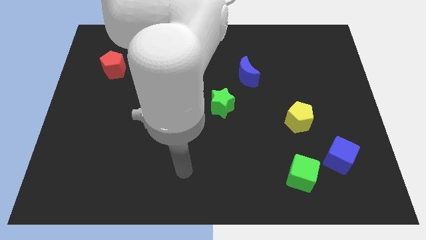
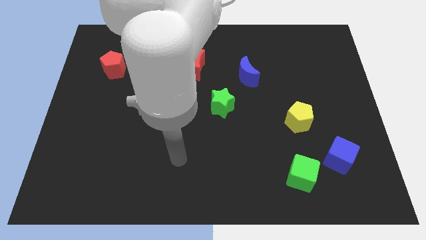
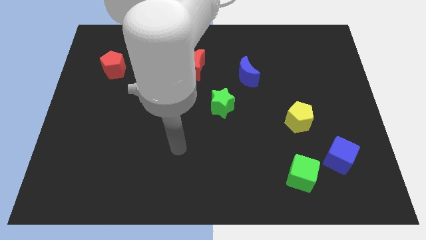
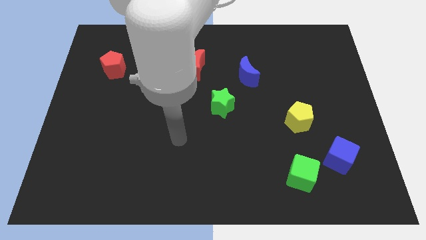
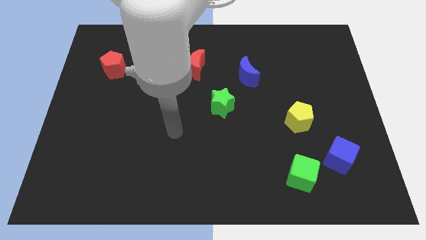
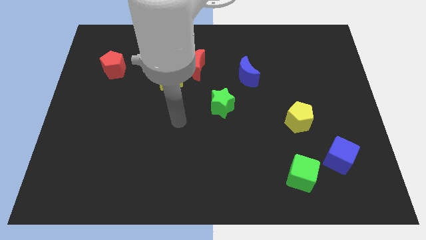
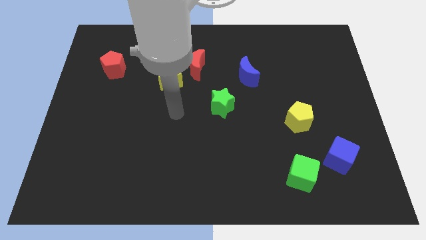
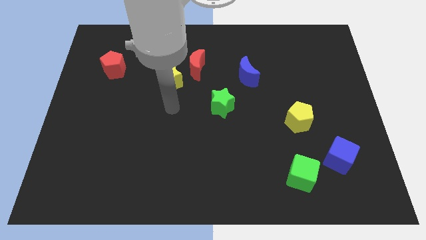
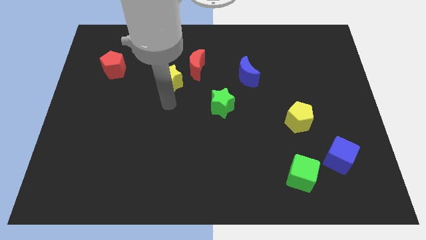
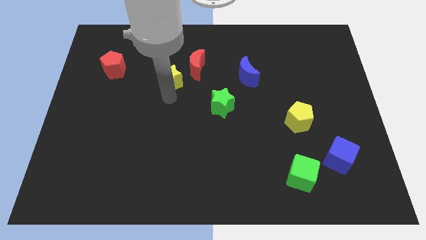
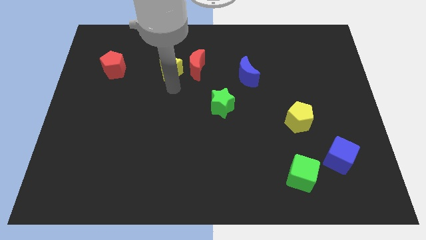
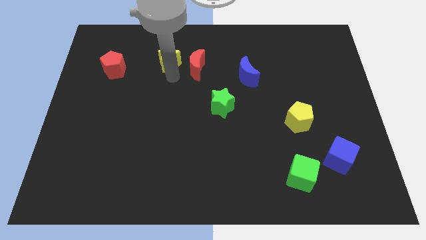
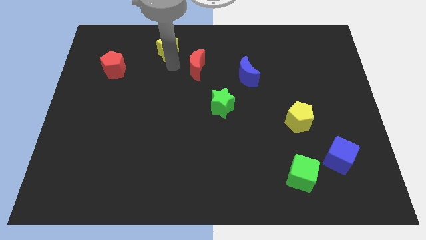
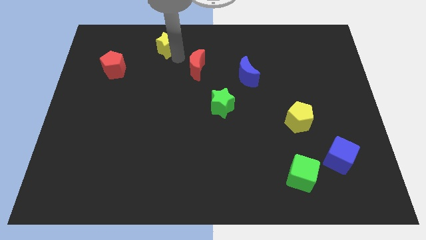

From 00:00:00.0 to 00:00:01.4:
pull the red moon apart from the yellow star

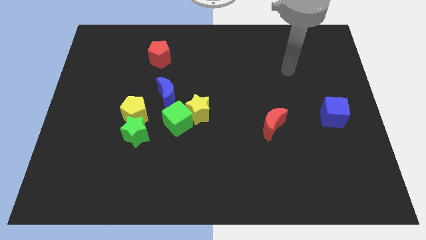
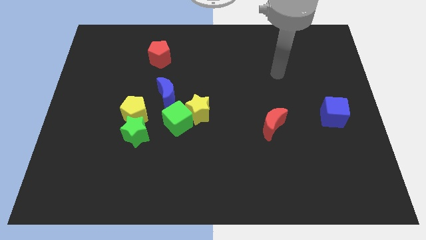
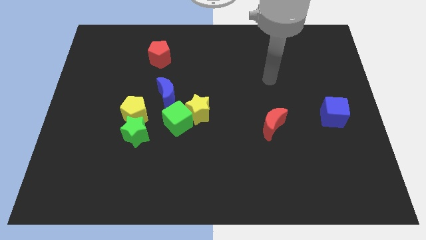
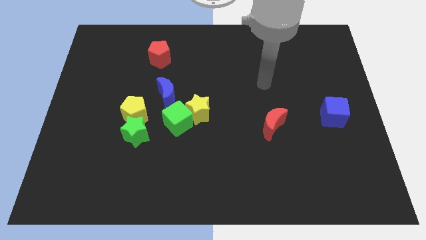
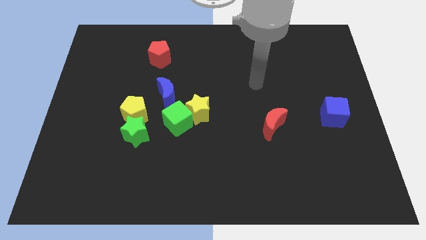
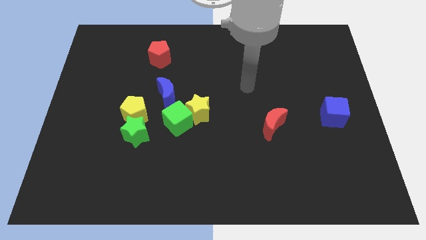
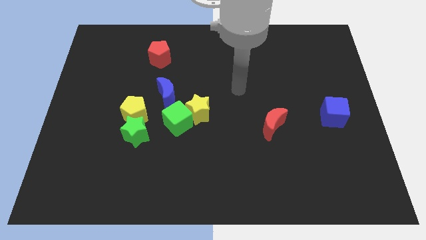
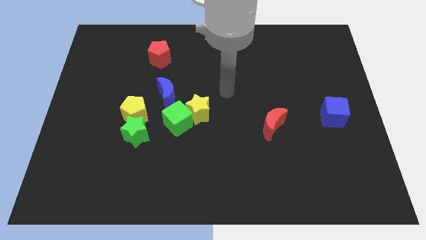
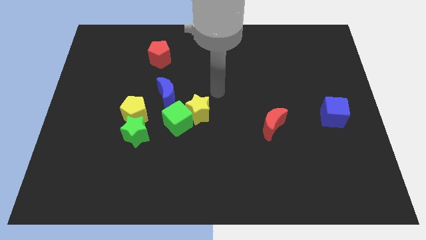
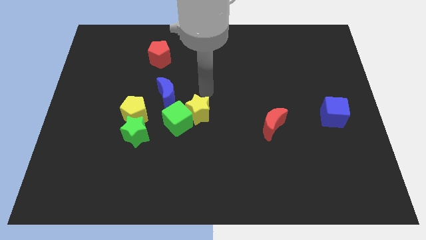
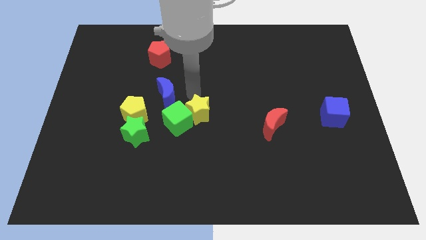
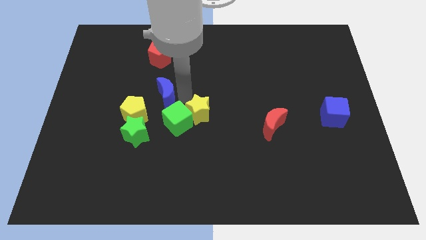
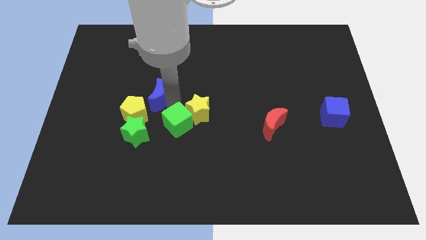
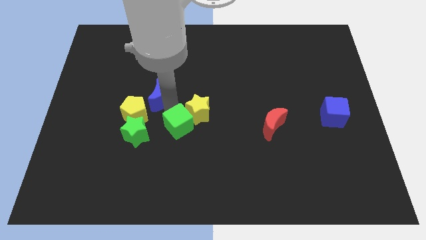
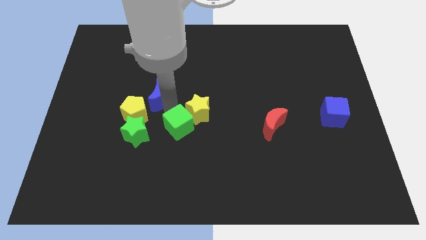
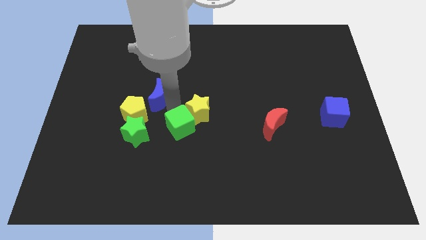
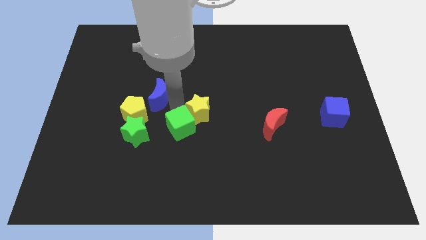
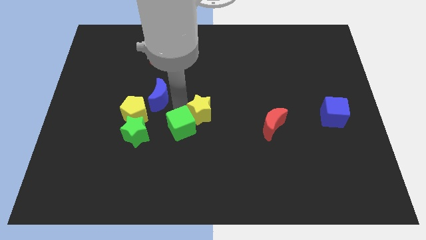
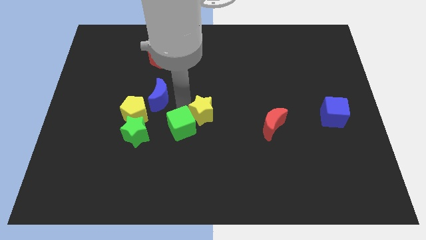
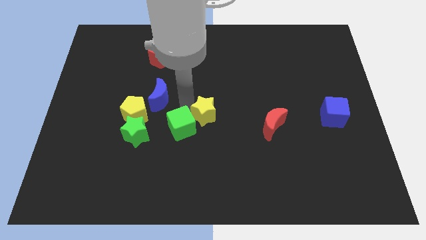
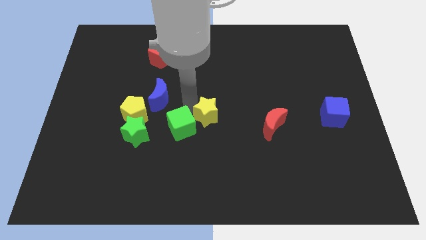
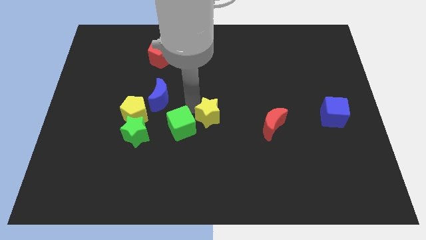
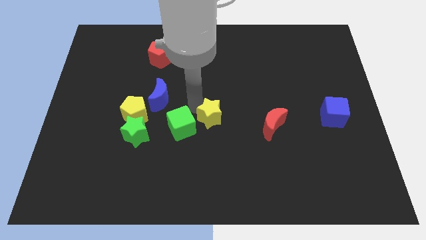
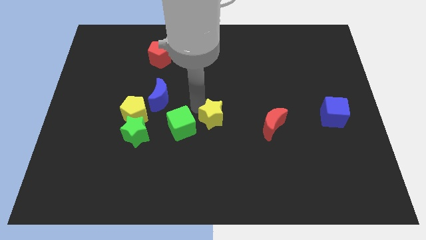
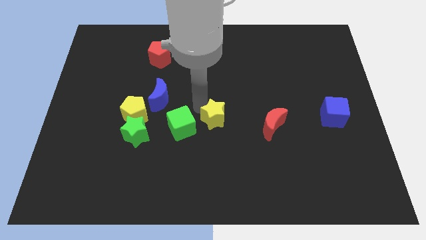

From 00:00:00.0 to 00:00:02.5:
move the yellow star away from the green cube and blue moon

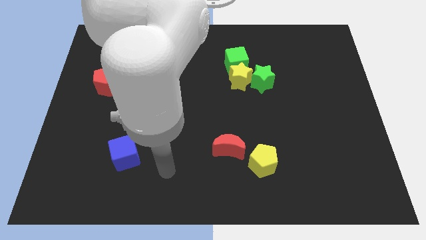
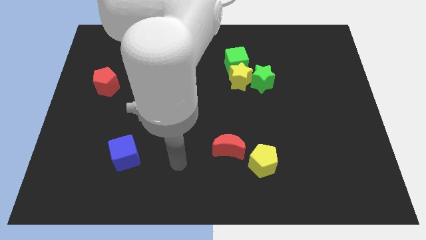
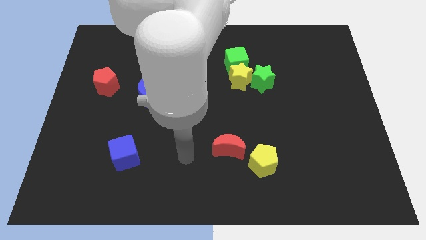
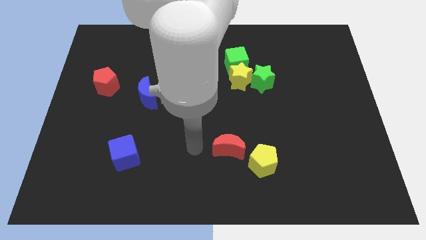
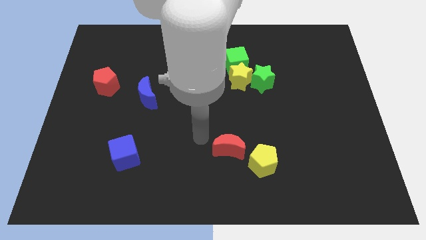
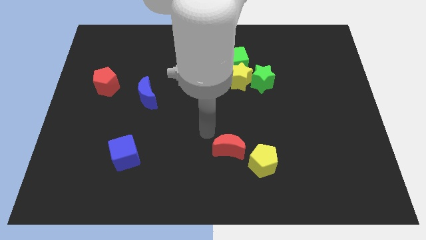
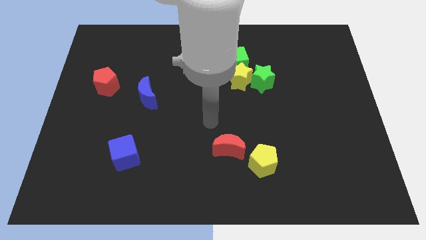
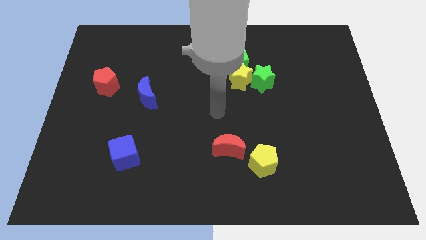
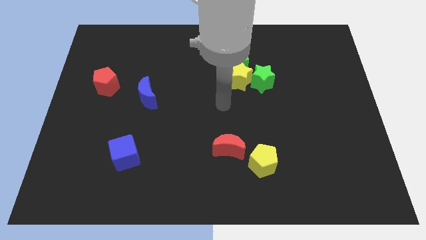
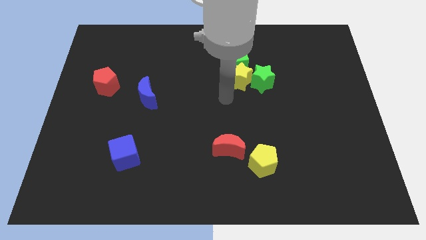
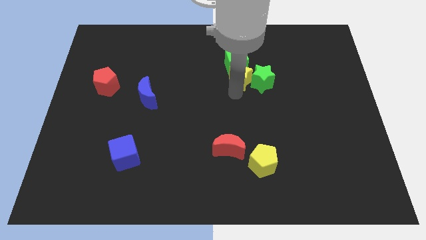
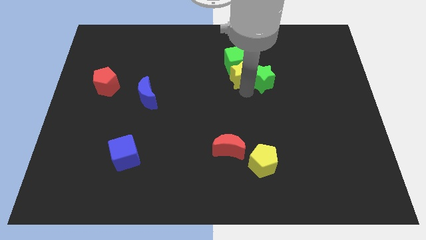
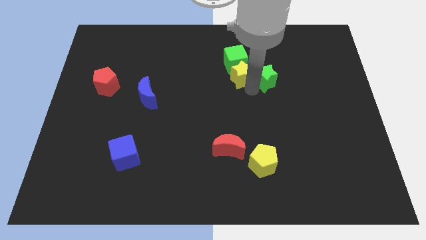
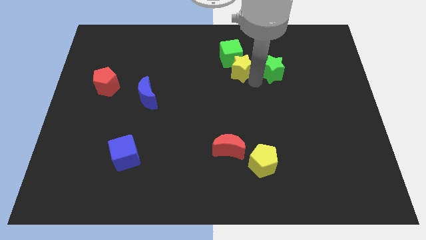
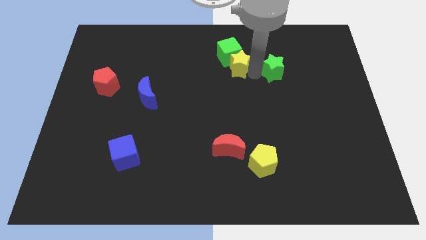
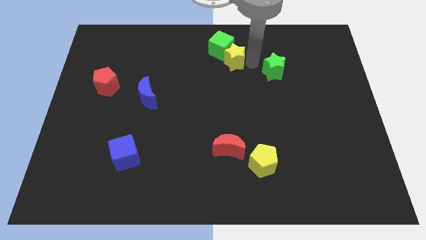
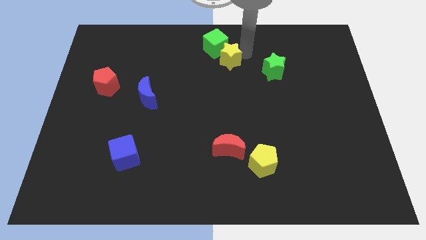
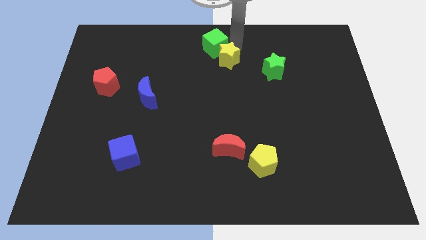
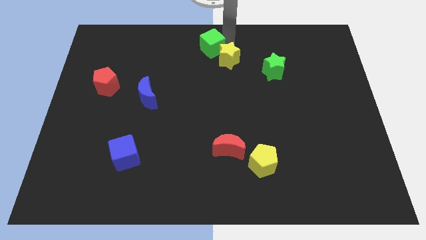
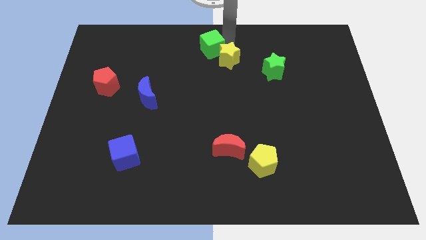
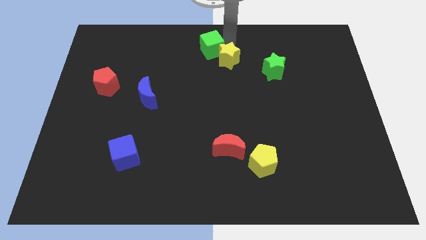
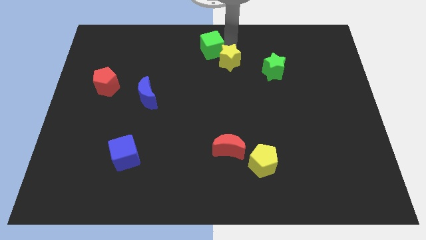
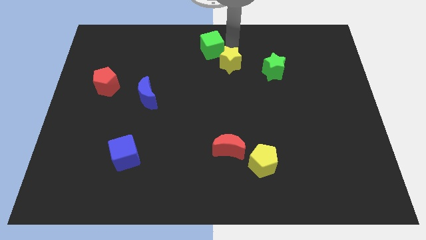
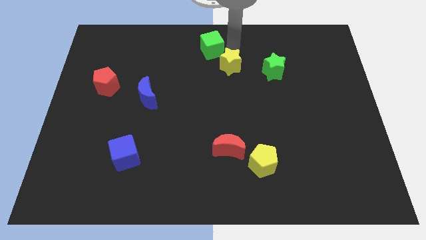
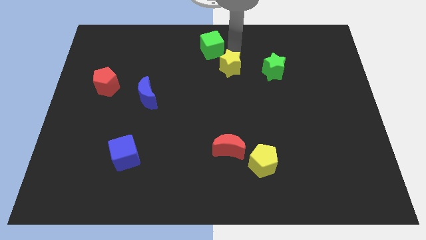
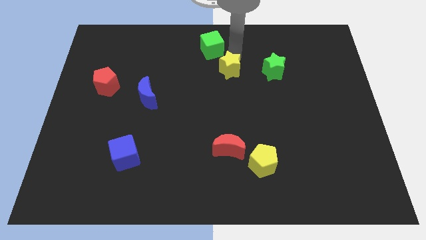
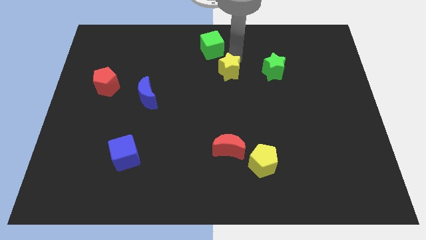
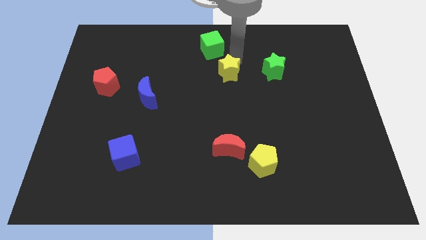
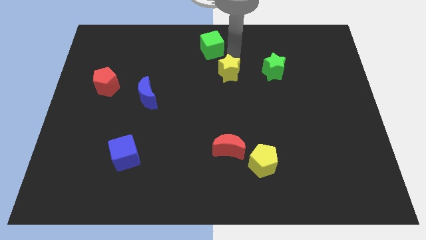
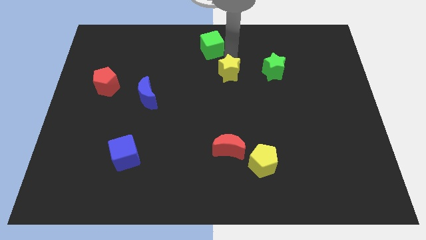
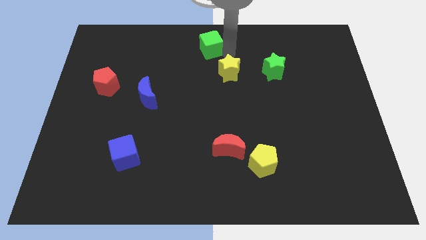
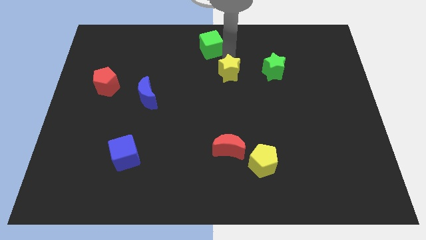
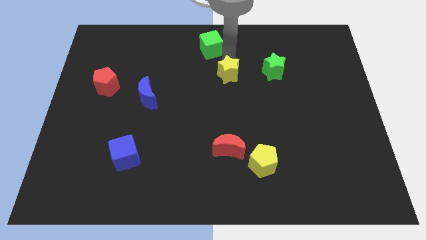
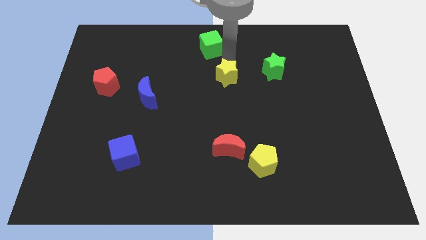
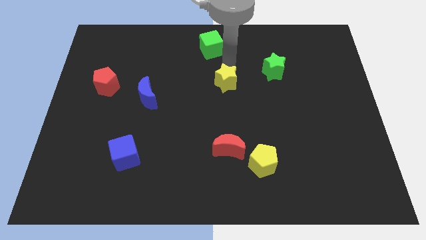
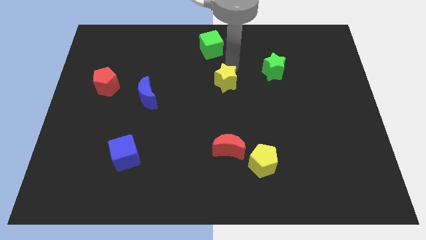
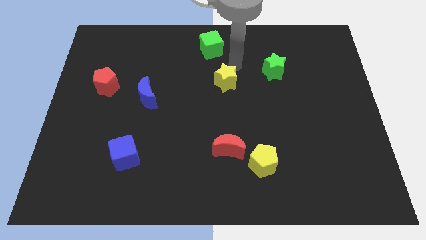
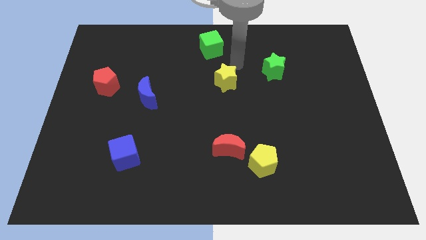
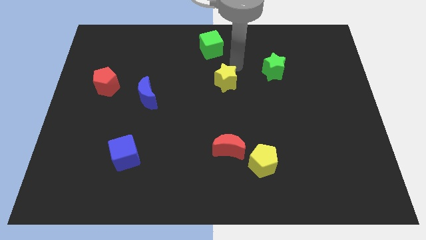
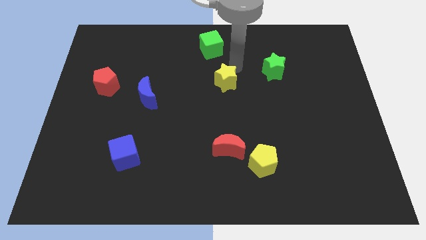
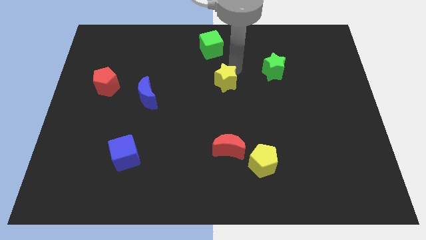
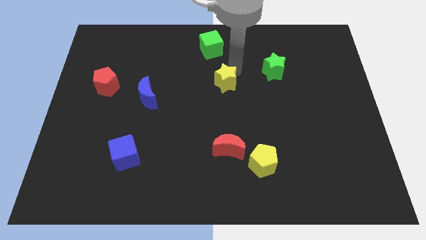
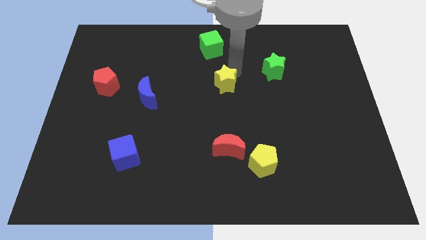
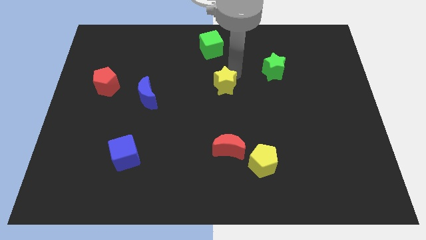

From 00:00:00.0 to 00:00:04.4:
move the yellow star away from the green star and green cube

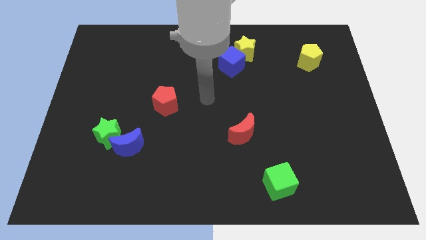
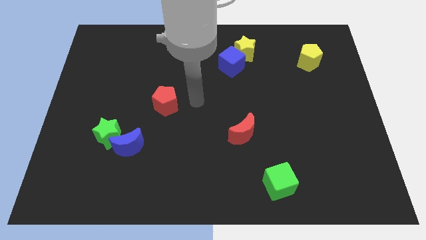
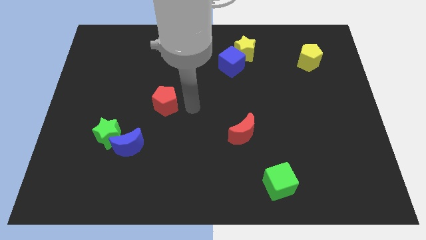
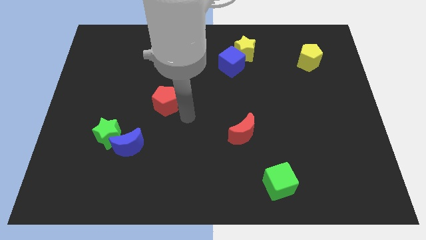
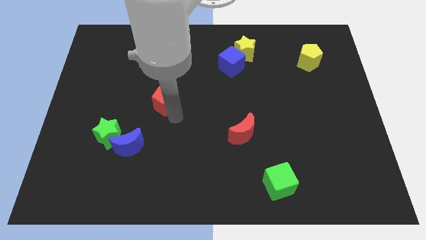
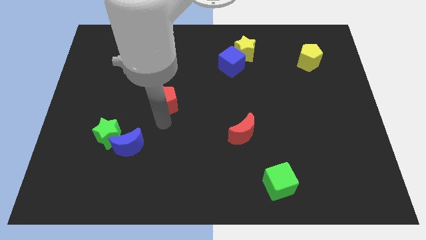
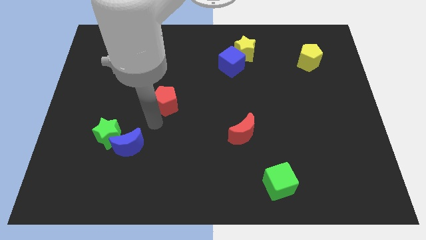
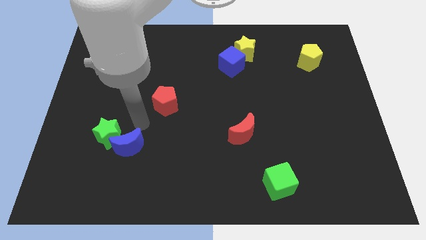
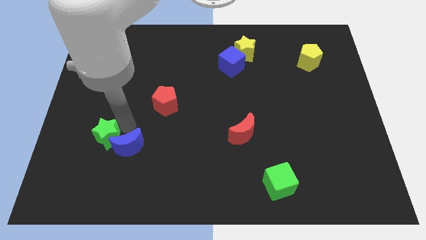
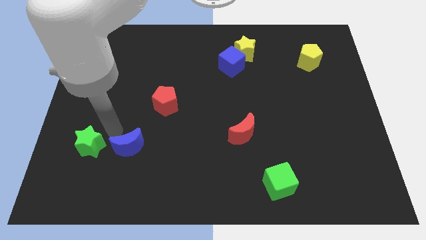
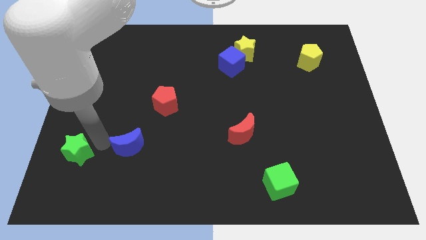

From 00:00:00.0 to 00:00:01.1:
pull the blue moon apart from the green star
